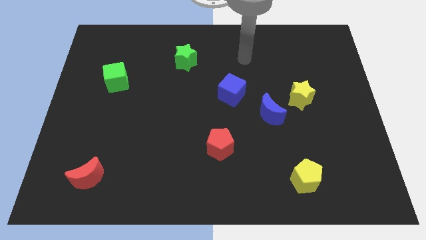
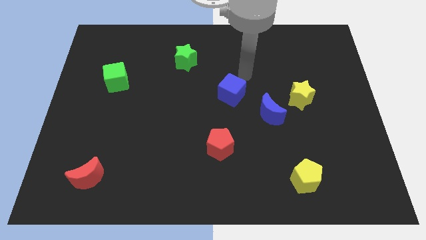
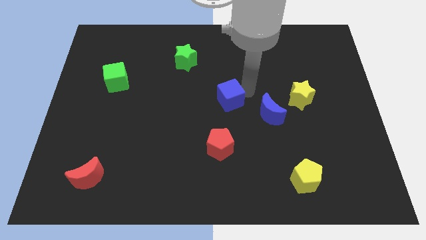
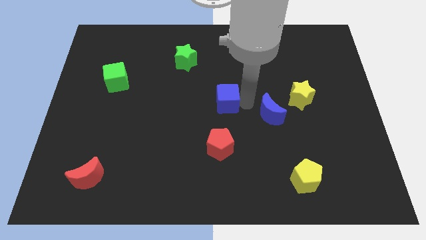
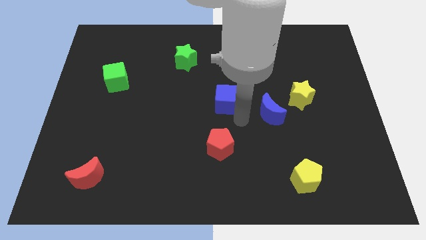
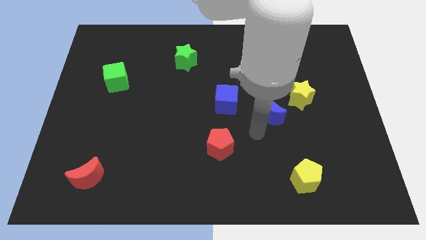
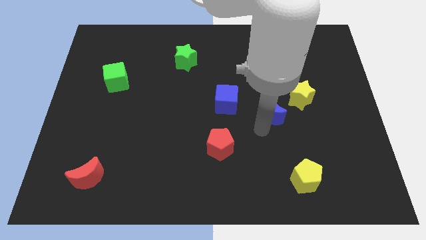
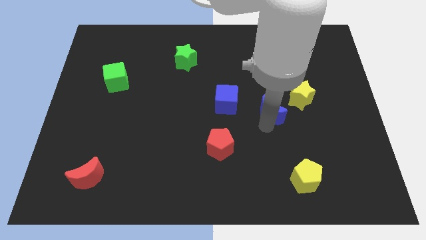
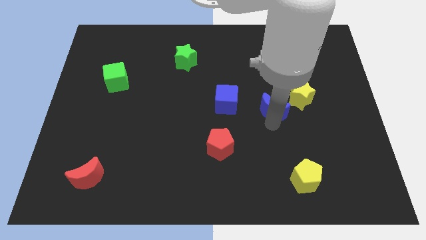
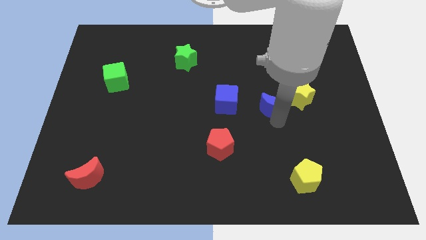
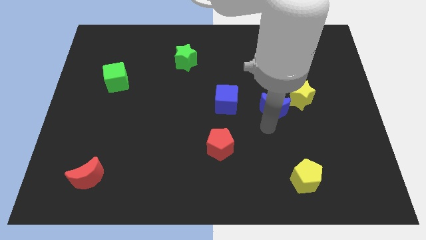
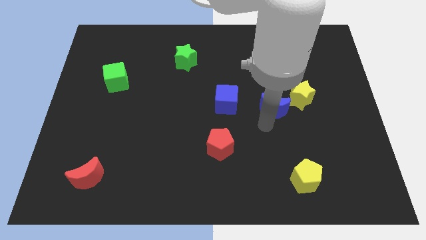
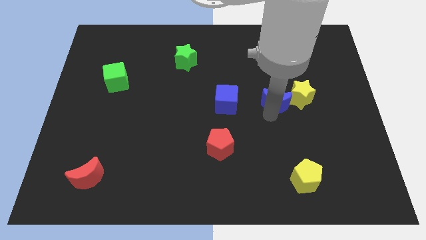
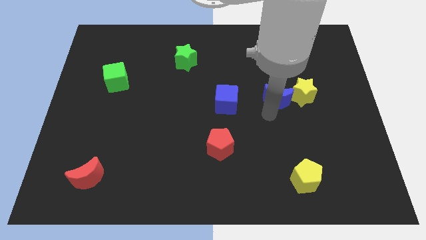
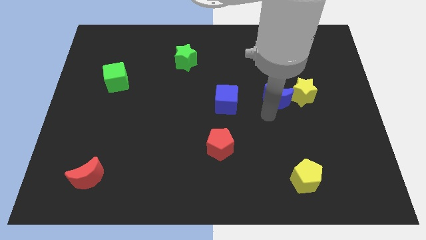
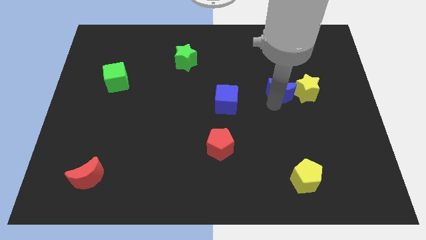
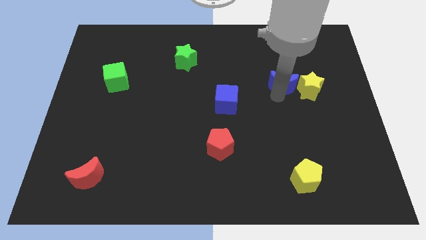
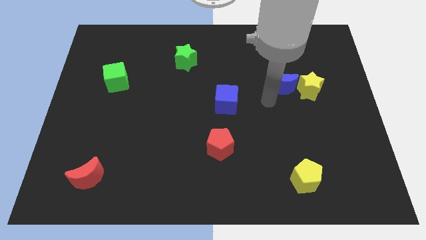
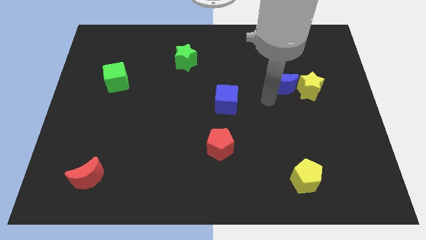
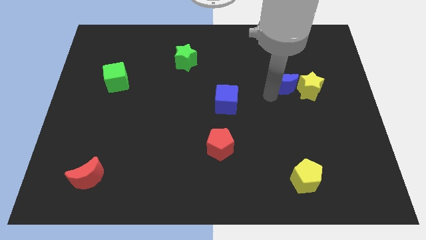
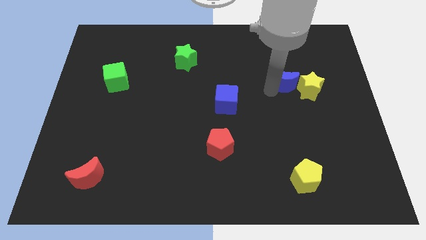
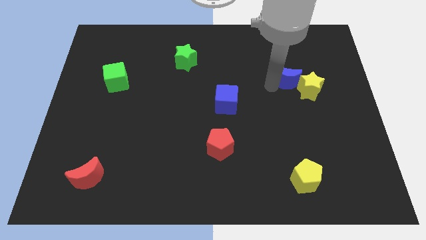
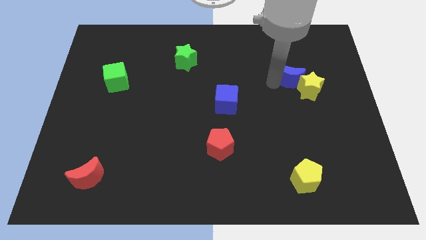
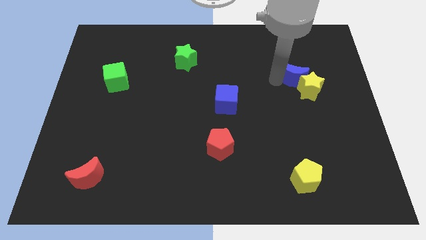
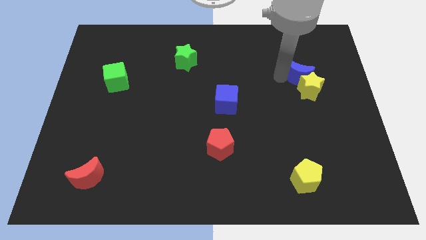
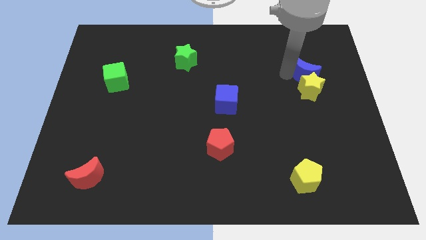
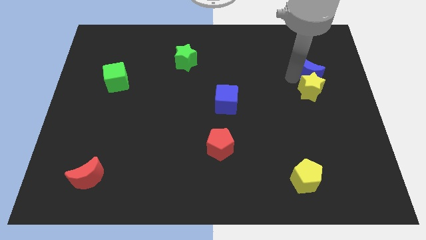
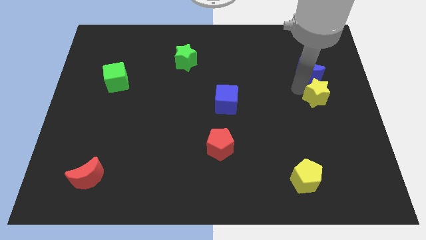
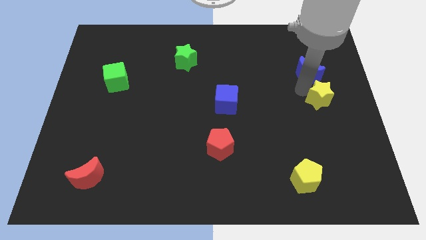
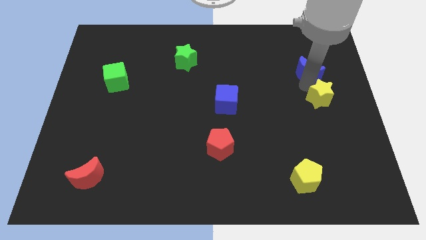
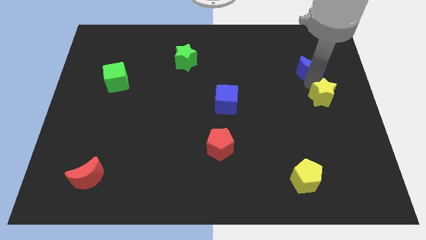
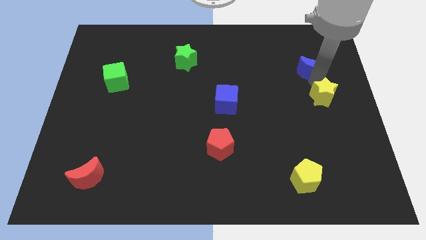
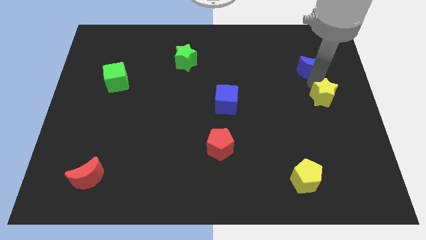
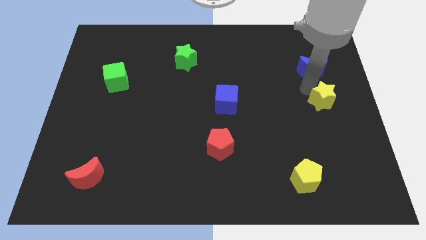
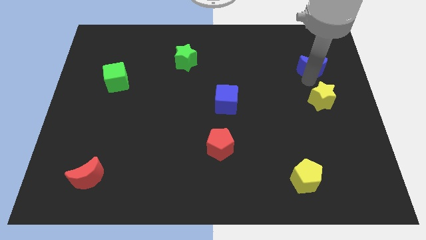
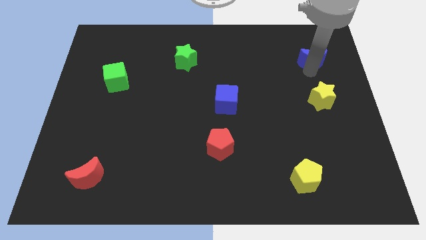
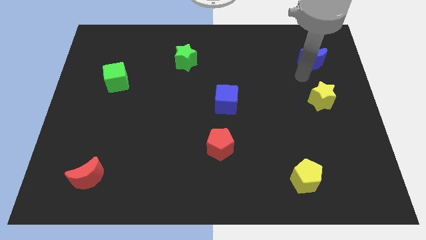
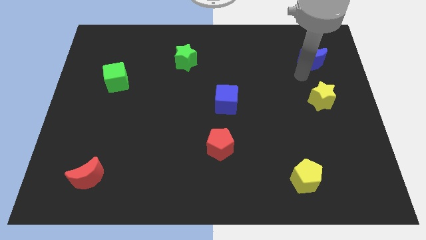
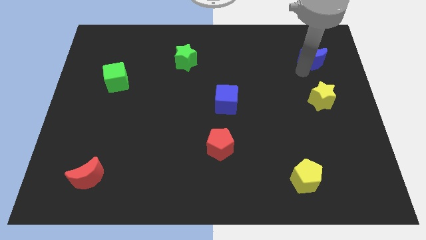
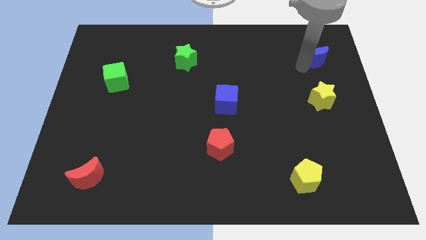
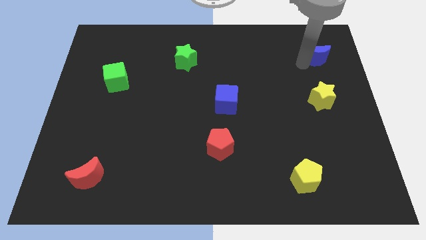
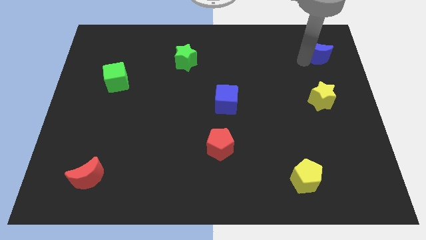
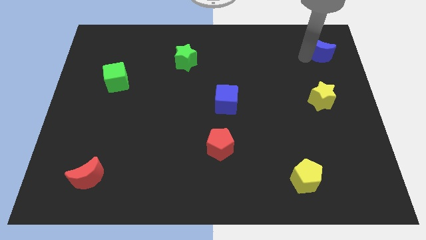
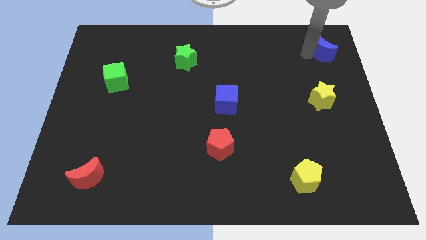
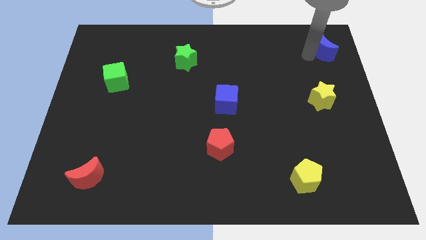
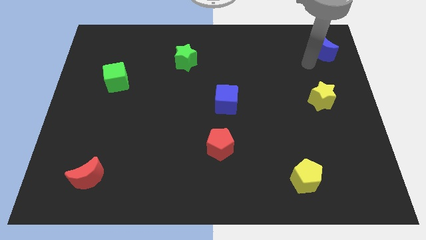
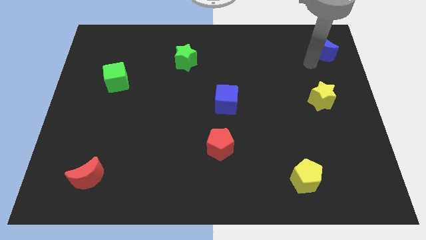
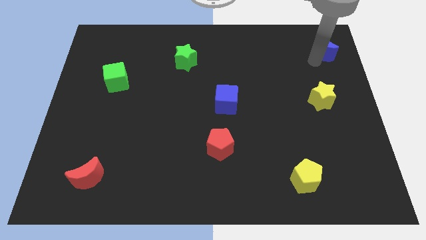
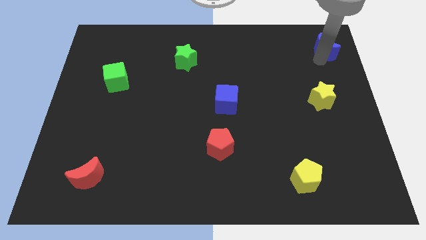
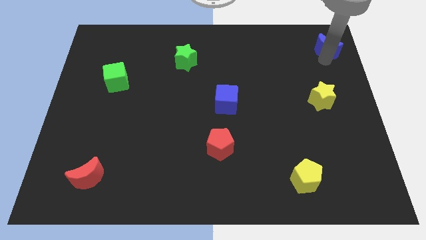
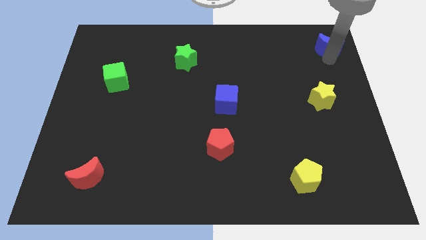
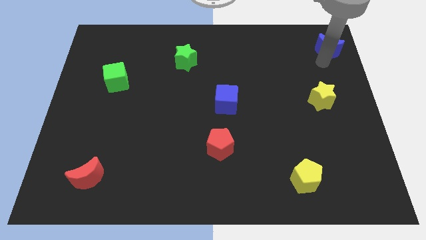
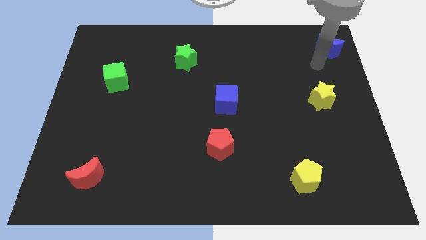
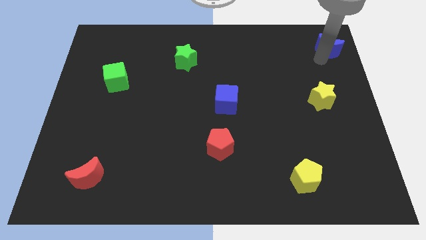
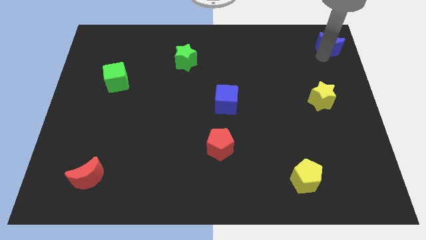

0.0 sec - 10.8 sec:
put the blue moon to the top right corner

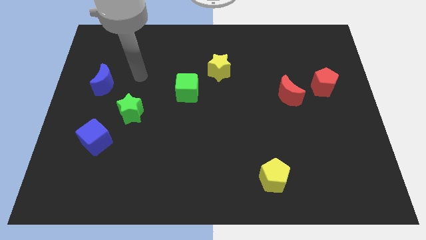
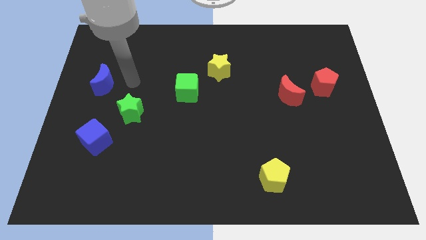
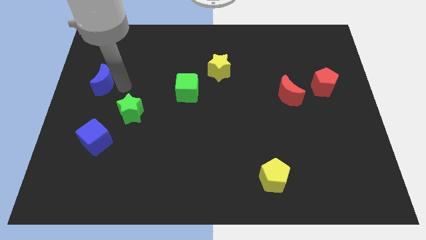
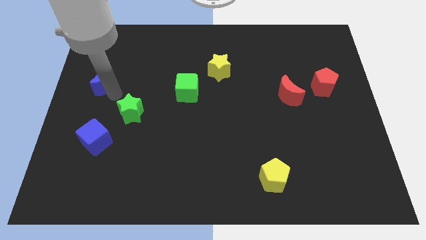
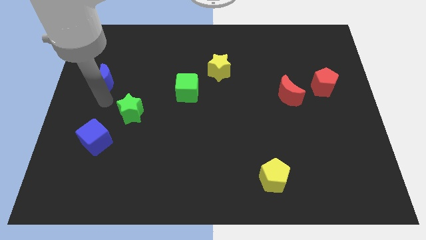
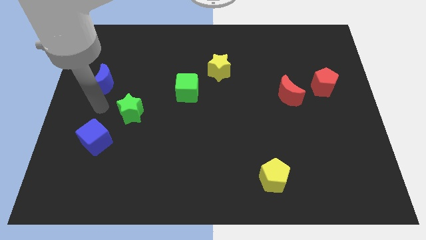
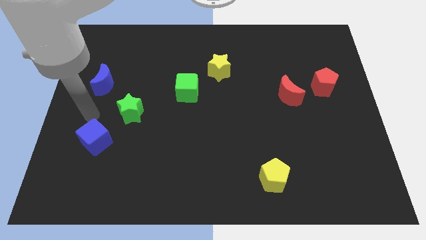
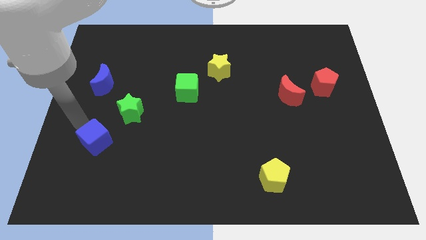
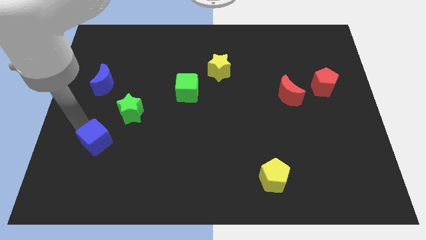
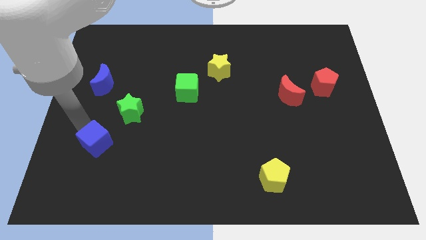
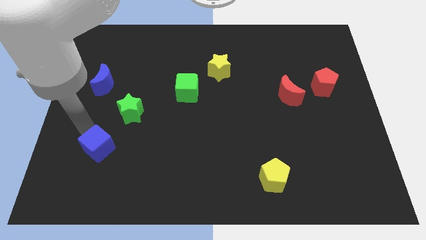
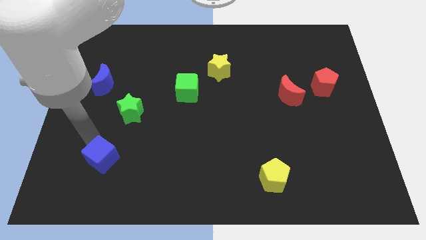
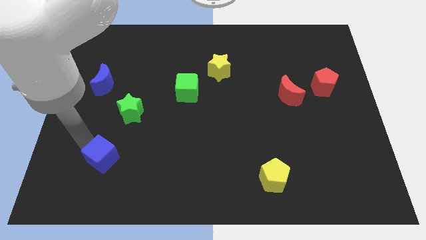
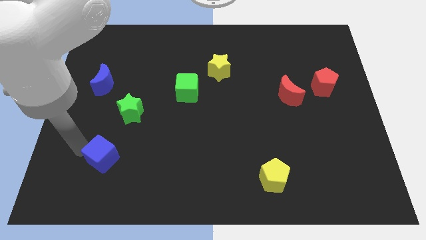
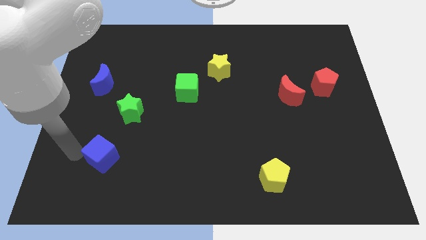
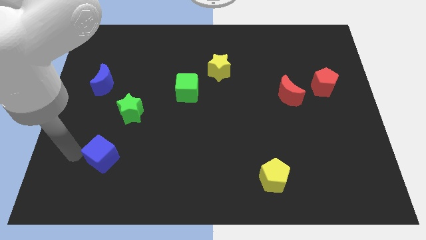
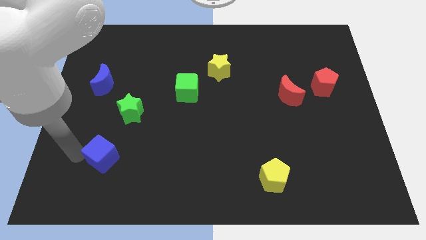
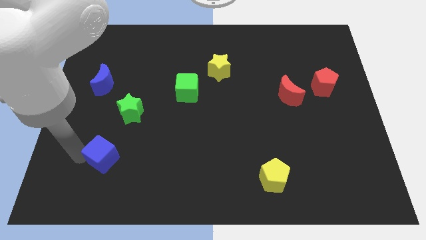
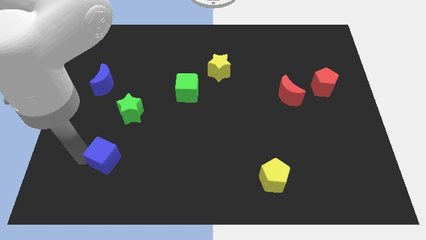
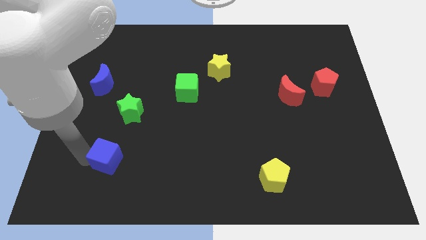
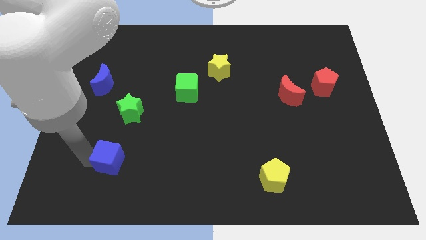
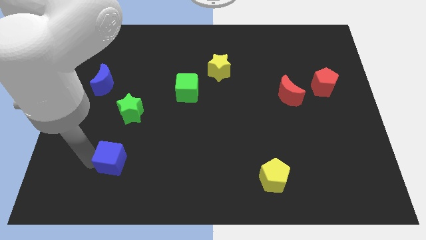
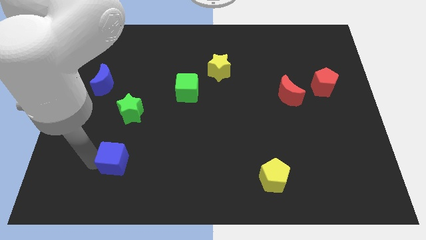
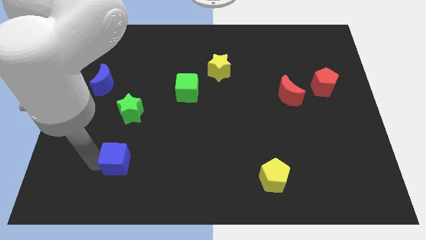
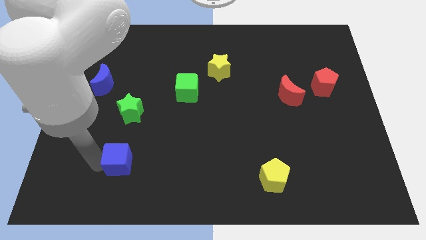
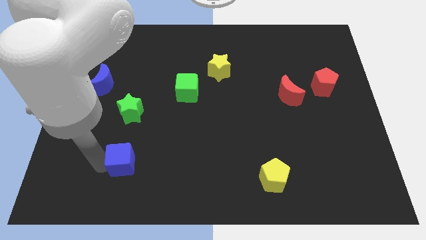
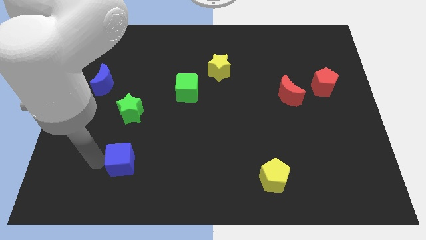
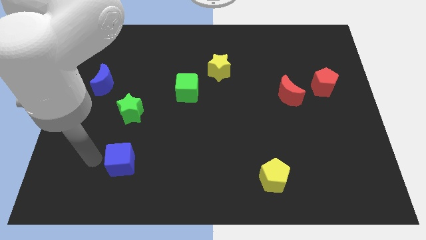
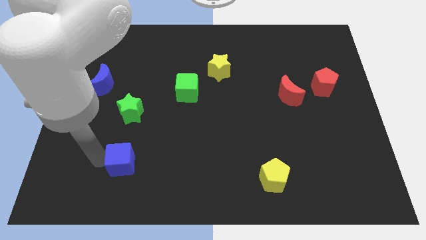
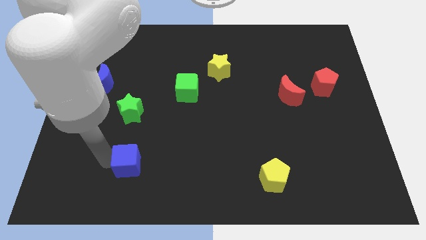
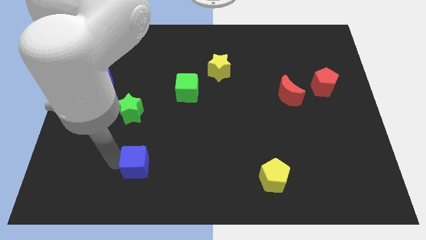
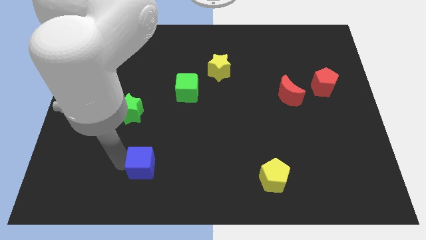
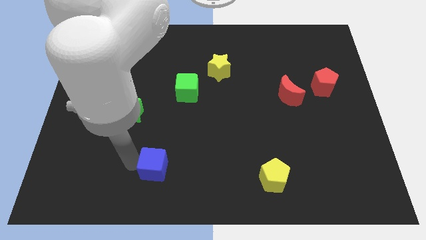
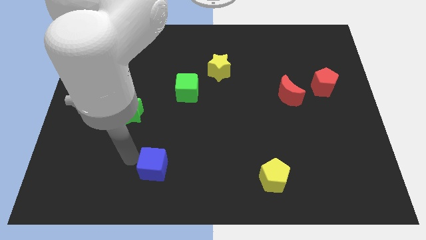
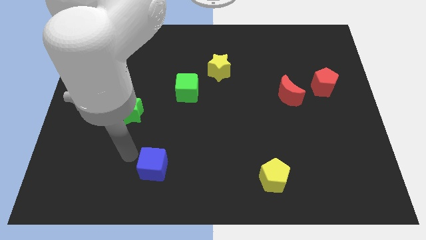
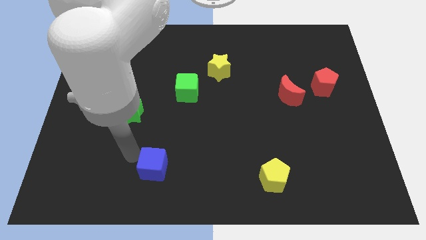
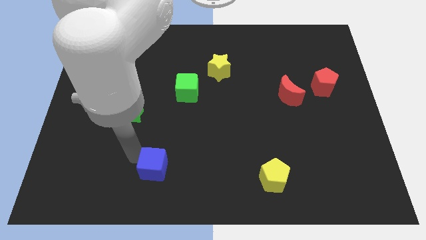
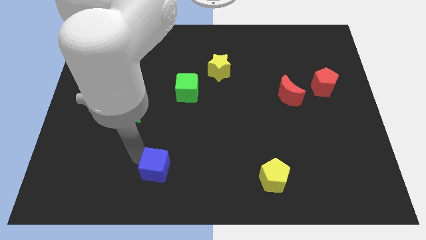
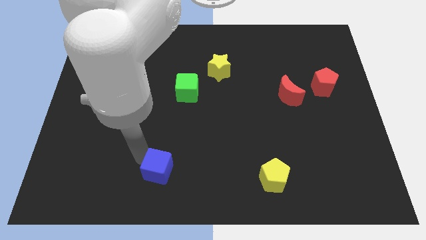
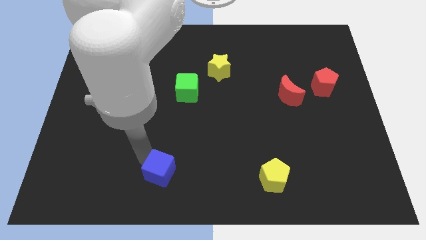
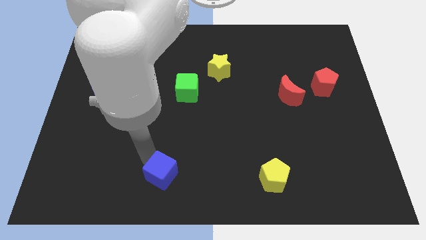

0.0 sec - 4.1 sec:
push the blue cube to the bottom side
